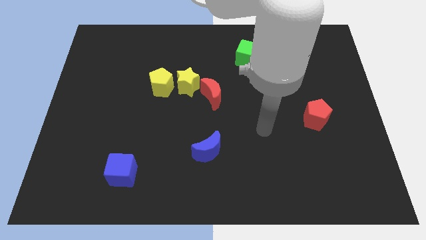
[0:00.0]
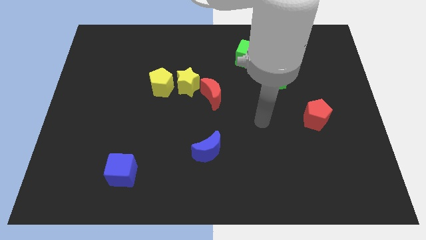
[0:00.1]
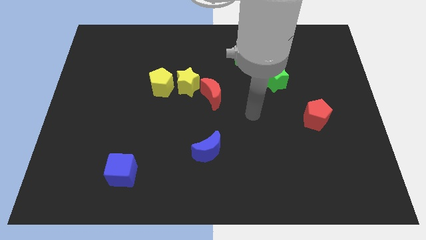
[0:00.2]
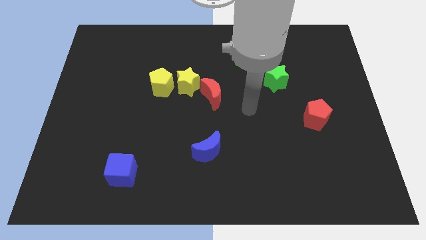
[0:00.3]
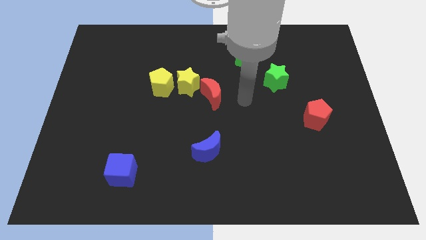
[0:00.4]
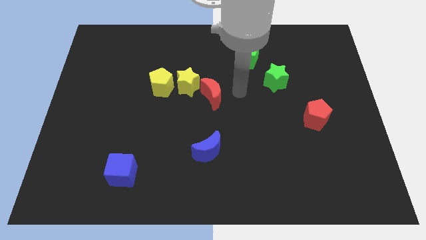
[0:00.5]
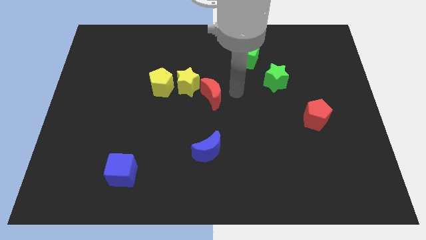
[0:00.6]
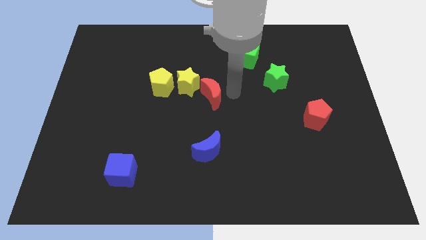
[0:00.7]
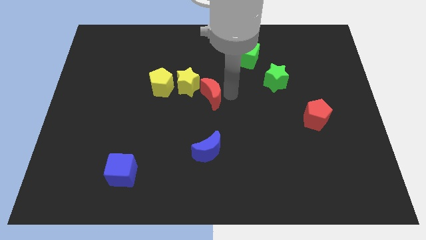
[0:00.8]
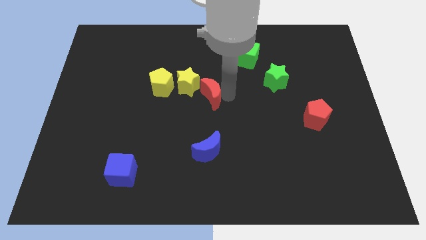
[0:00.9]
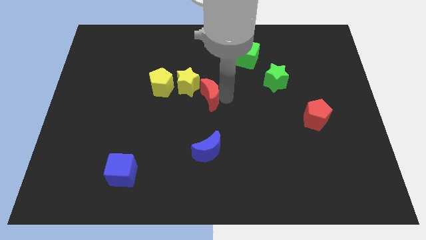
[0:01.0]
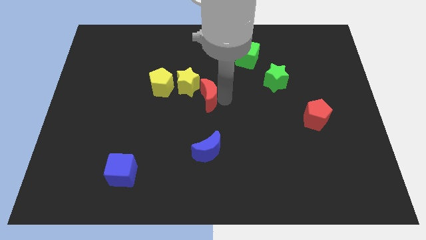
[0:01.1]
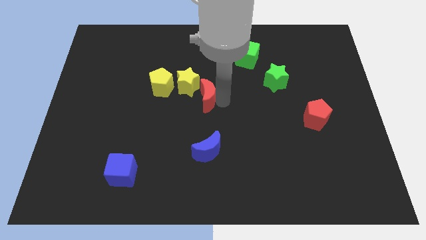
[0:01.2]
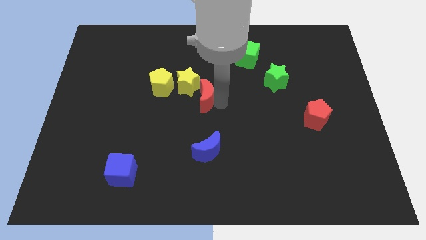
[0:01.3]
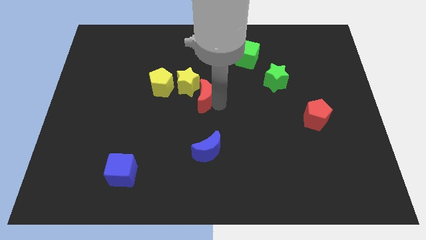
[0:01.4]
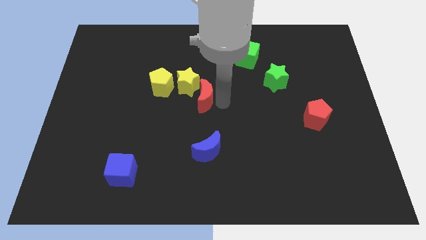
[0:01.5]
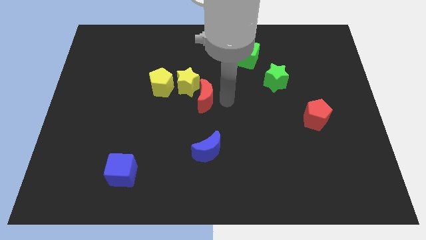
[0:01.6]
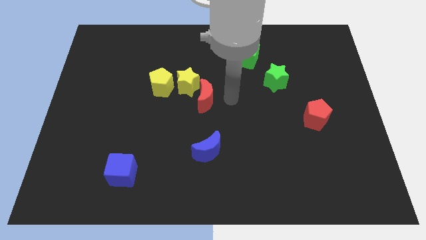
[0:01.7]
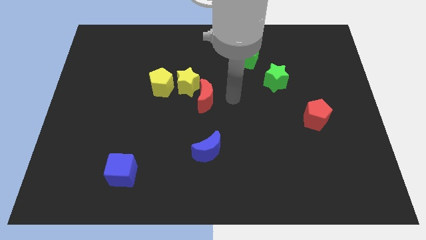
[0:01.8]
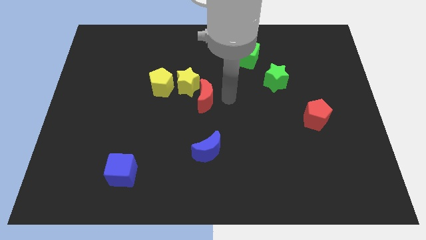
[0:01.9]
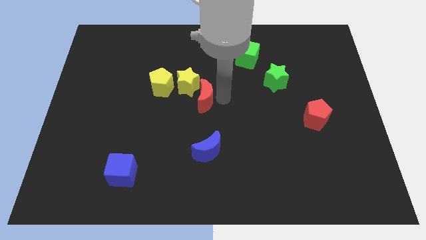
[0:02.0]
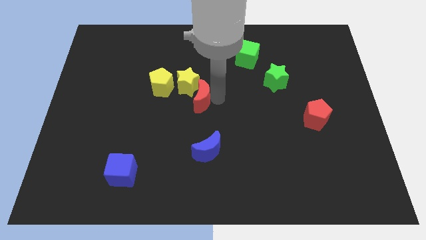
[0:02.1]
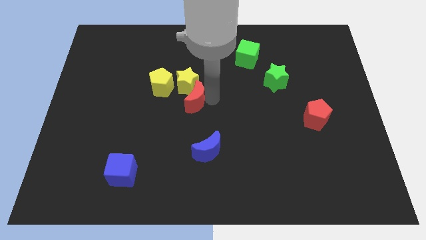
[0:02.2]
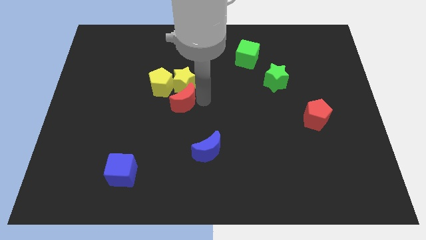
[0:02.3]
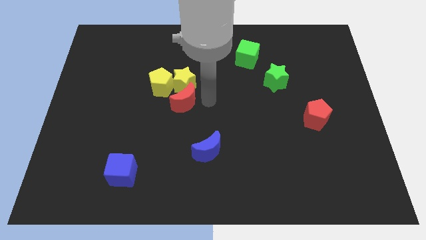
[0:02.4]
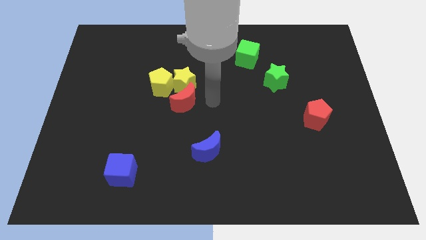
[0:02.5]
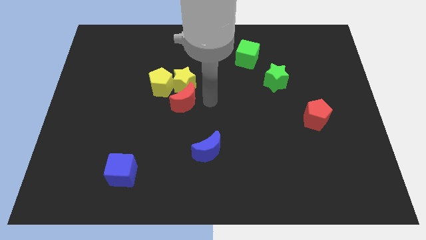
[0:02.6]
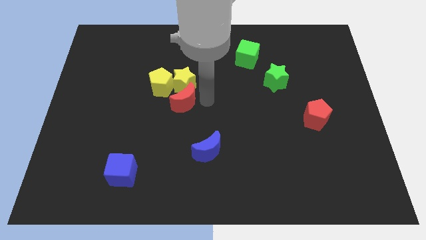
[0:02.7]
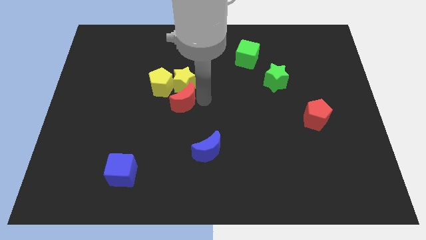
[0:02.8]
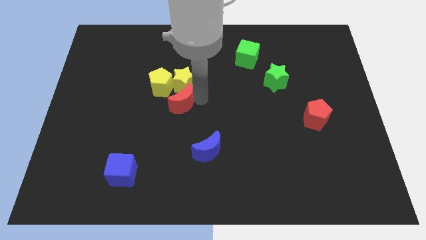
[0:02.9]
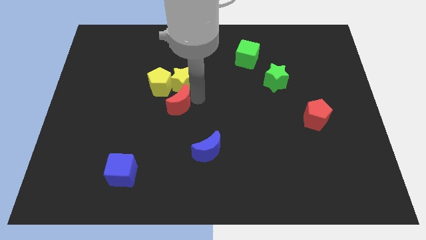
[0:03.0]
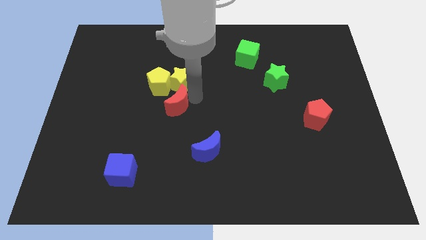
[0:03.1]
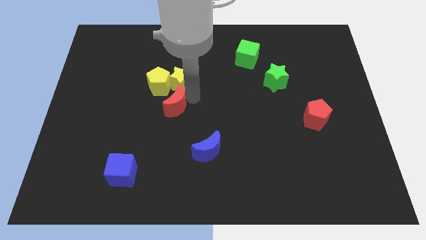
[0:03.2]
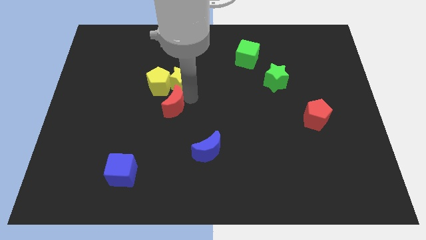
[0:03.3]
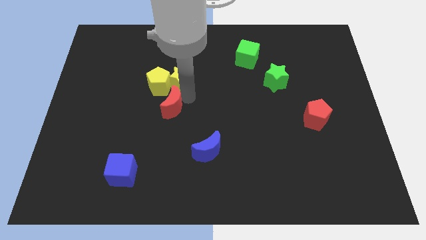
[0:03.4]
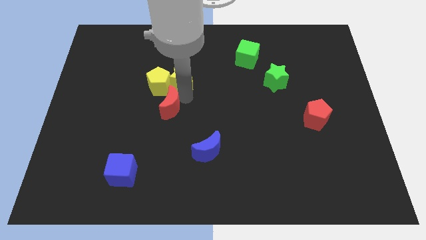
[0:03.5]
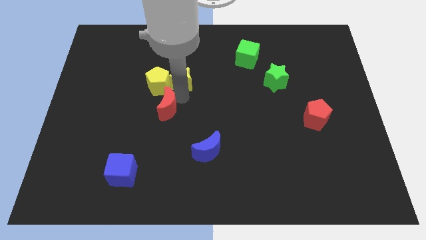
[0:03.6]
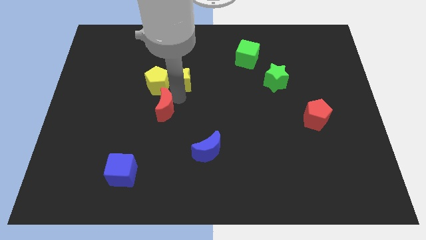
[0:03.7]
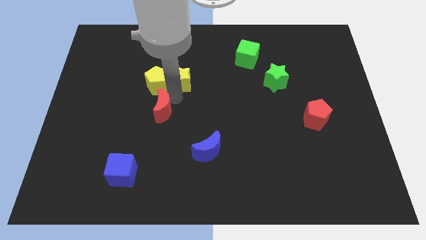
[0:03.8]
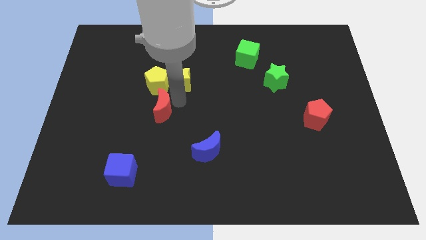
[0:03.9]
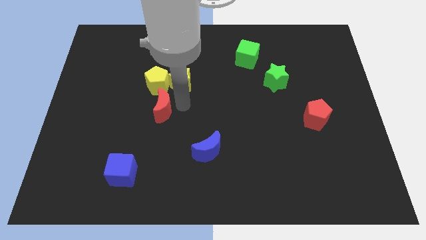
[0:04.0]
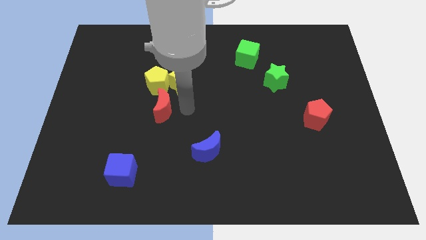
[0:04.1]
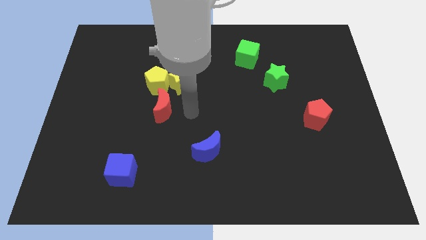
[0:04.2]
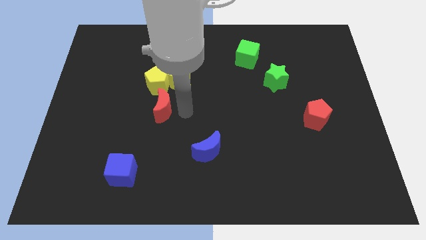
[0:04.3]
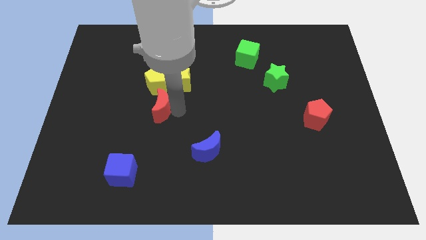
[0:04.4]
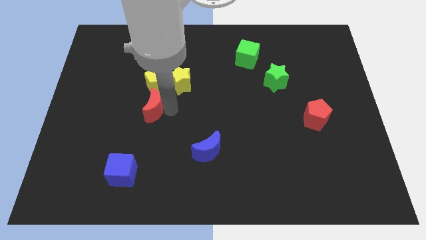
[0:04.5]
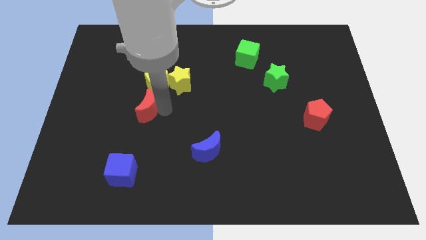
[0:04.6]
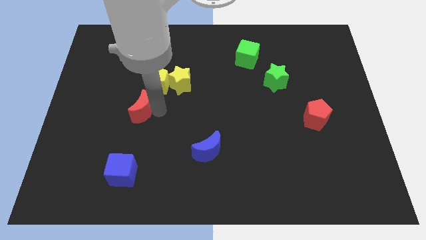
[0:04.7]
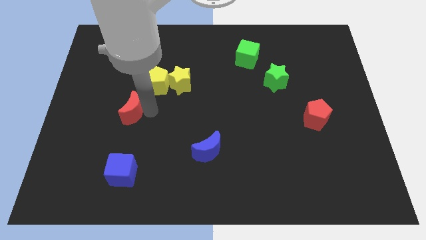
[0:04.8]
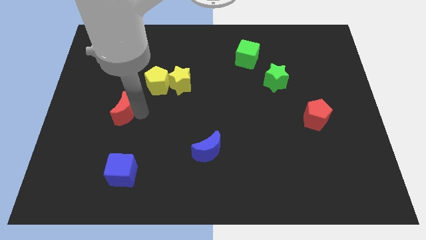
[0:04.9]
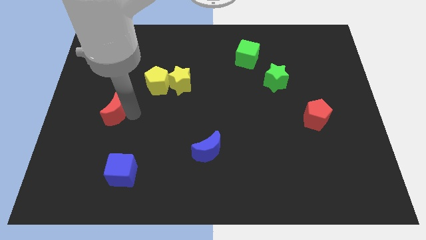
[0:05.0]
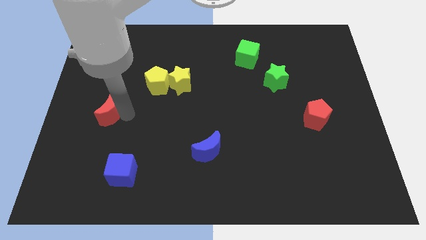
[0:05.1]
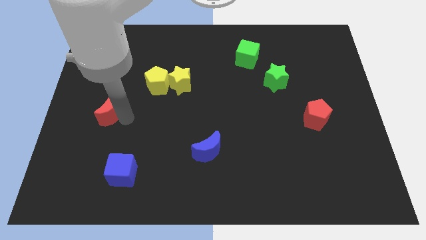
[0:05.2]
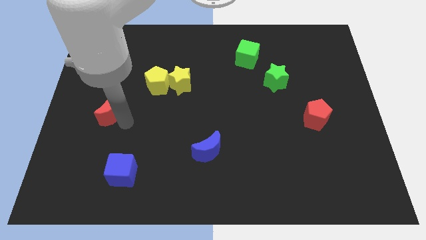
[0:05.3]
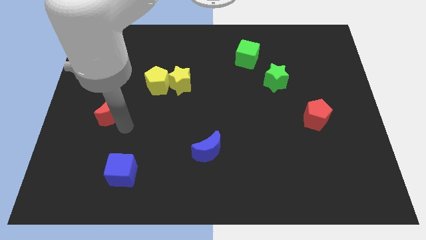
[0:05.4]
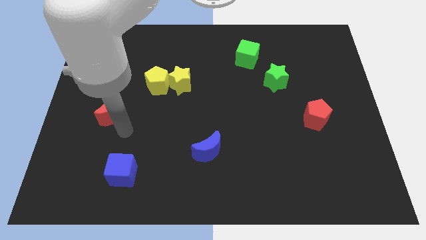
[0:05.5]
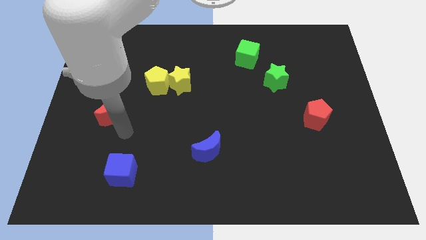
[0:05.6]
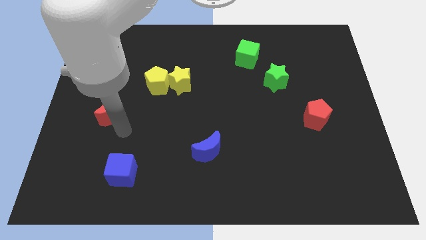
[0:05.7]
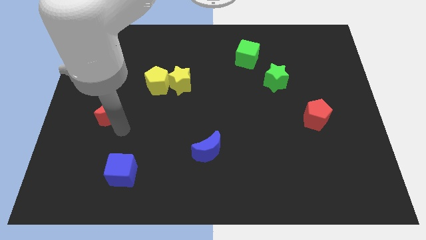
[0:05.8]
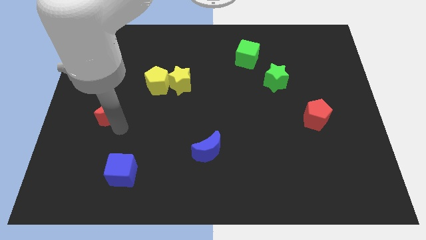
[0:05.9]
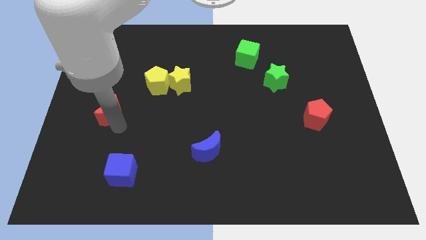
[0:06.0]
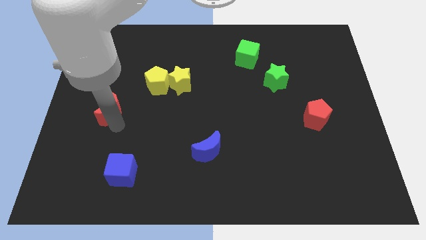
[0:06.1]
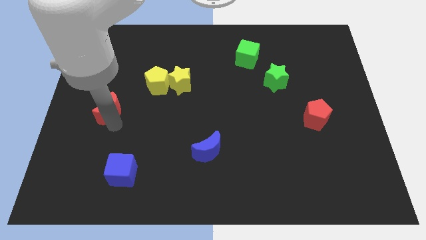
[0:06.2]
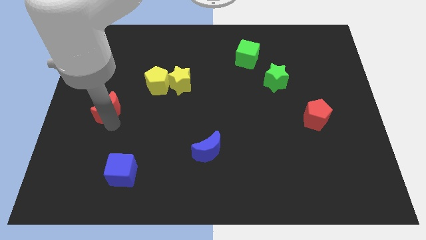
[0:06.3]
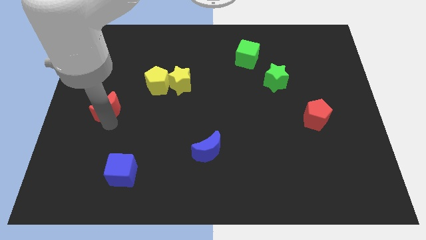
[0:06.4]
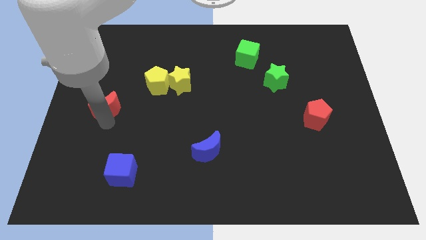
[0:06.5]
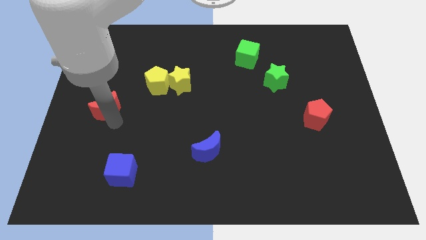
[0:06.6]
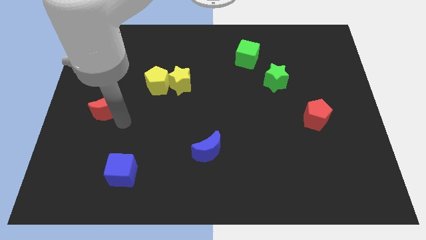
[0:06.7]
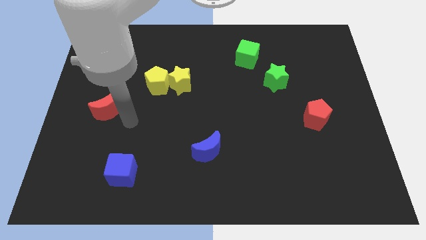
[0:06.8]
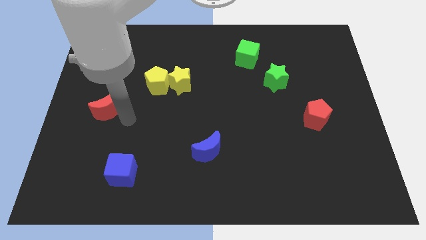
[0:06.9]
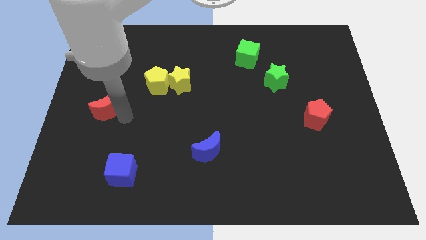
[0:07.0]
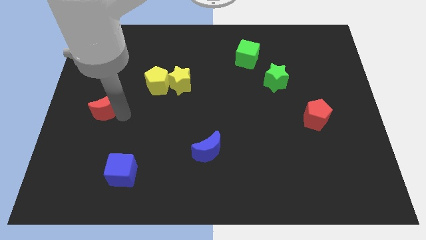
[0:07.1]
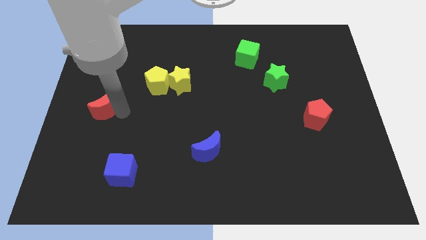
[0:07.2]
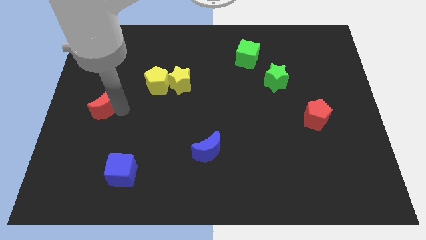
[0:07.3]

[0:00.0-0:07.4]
push the red moon to the left side of the board
